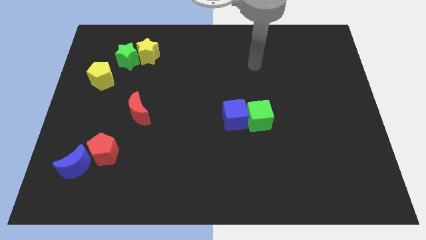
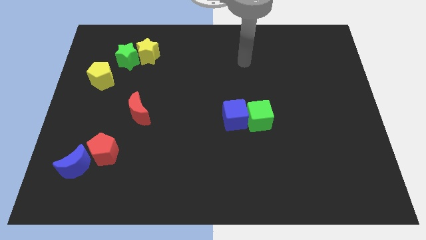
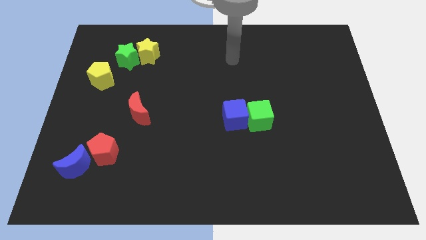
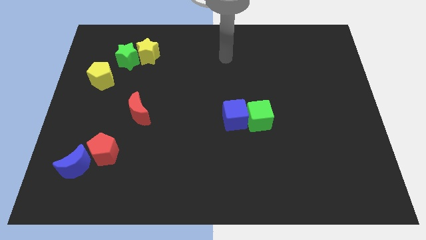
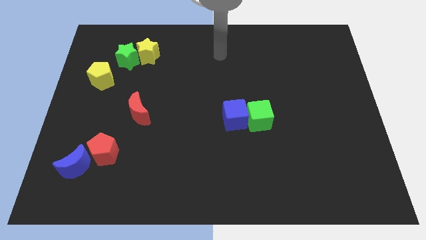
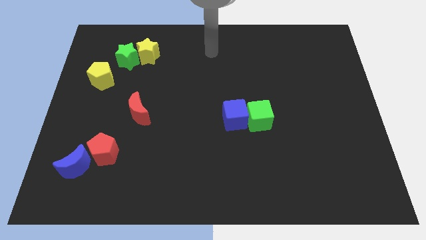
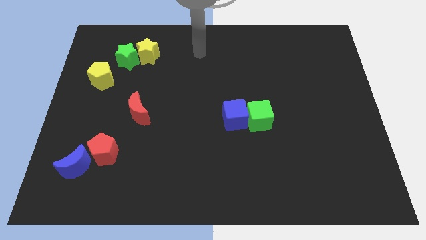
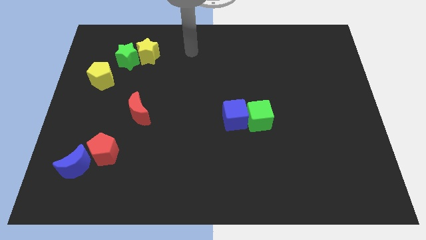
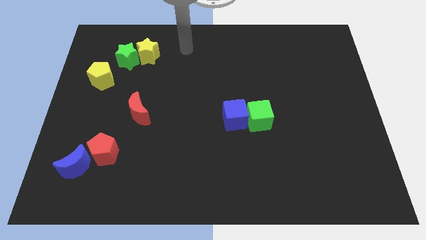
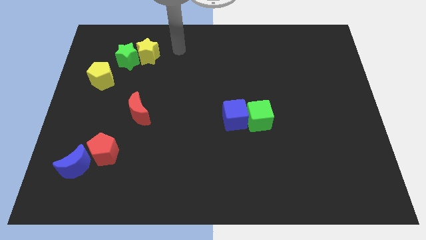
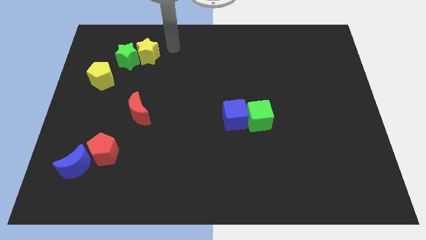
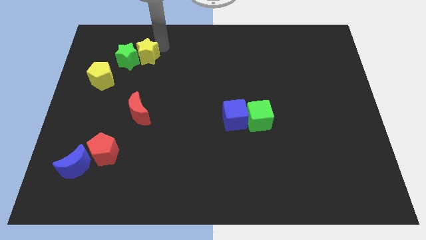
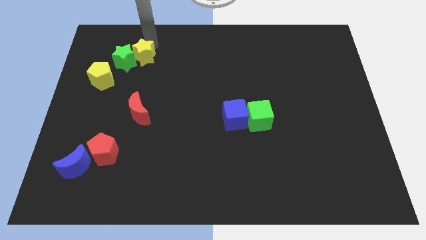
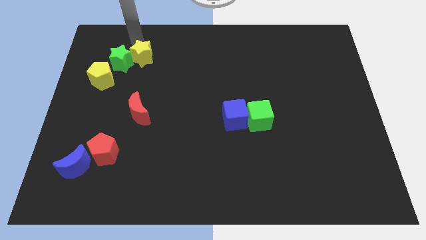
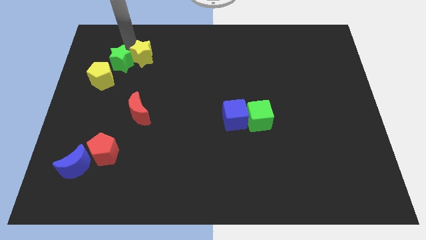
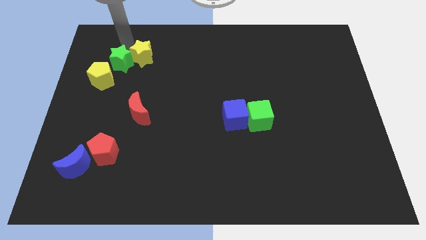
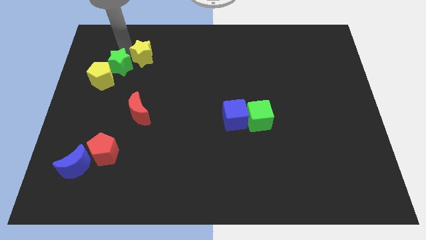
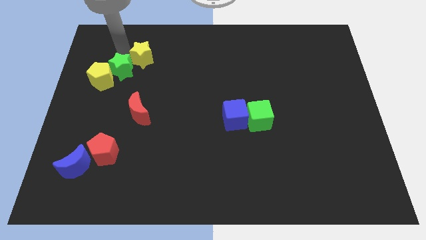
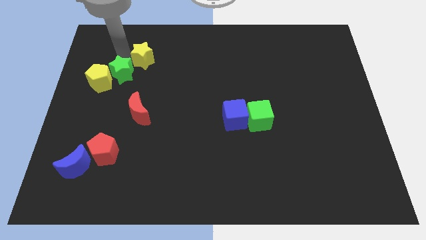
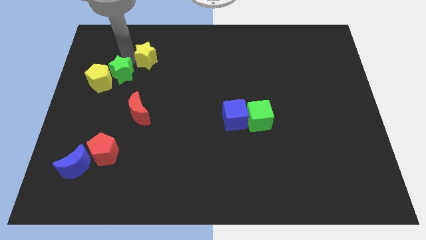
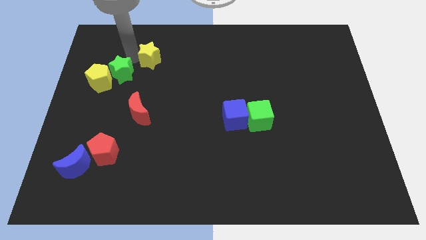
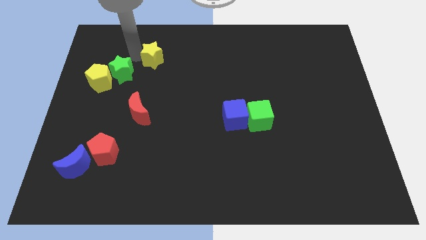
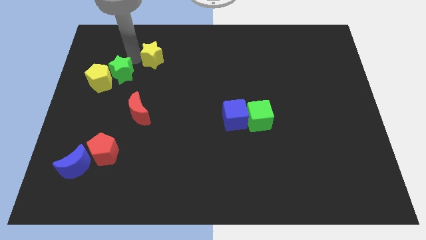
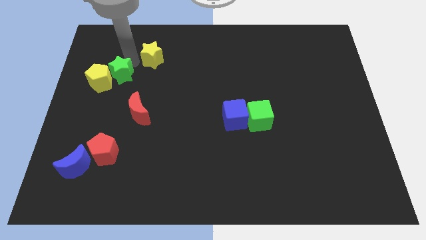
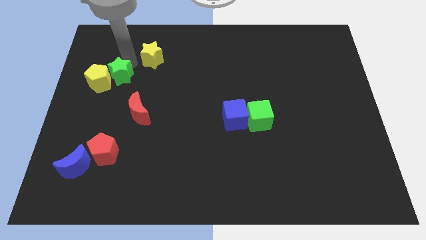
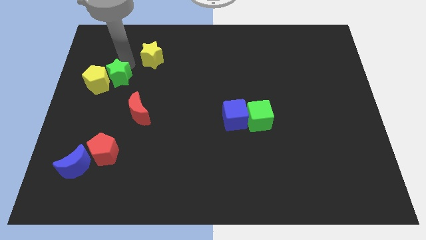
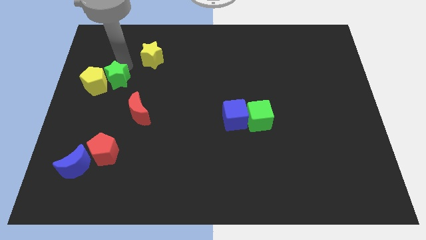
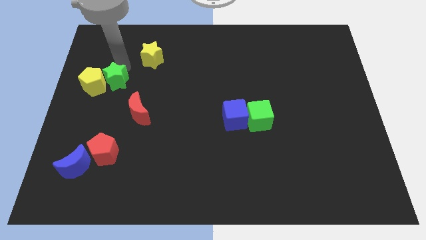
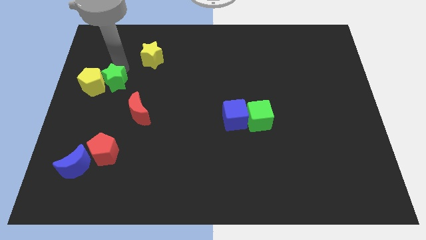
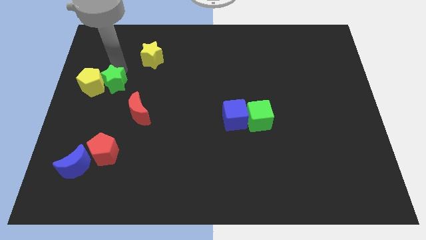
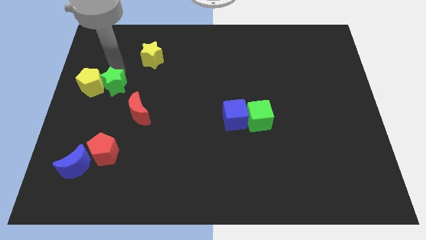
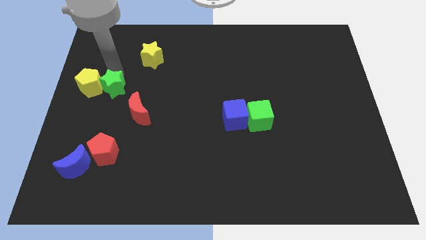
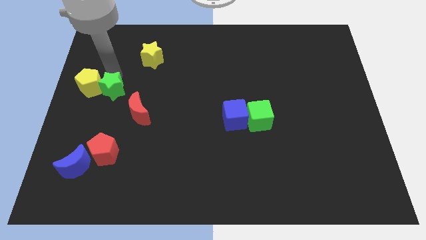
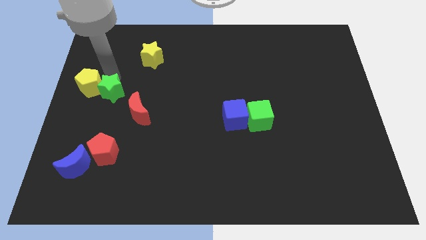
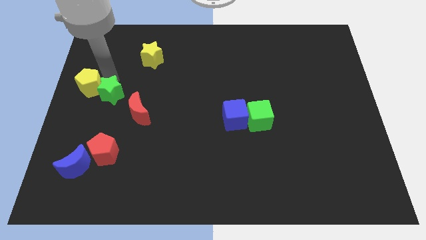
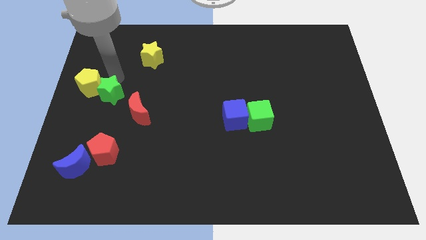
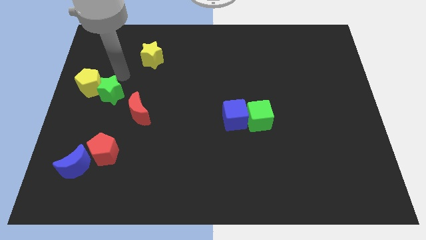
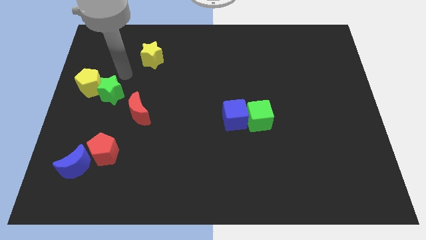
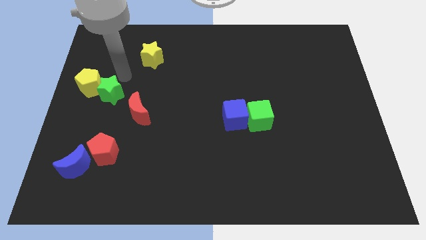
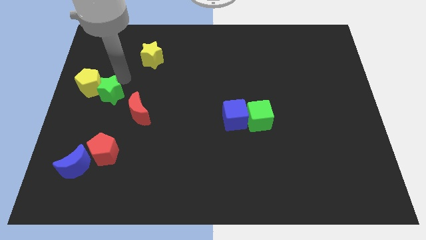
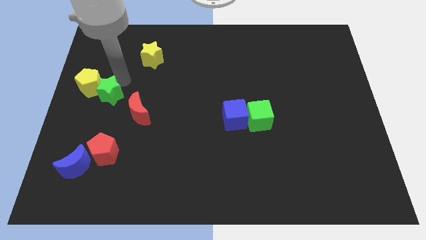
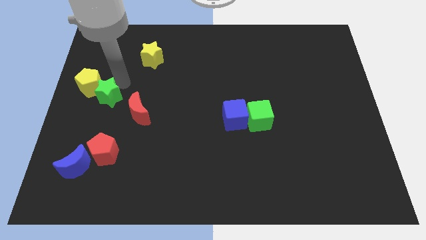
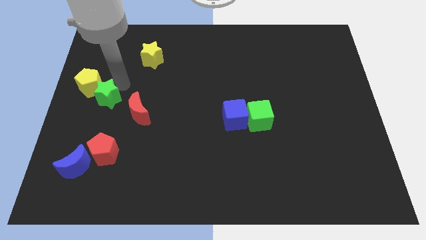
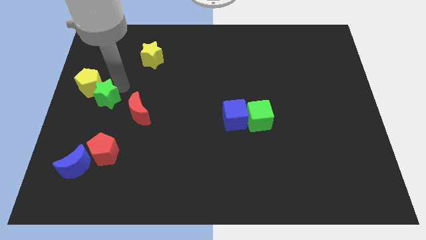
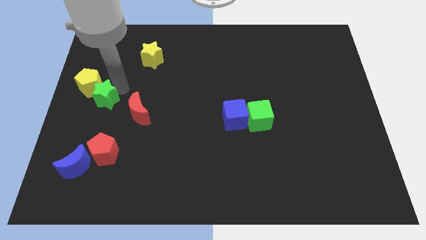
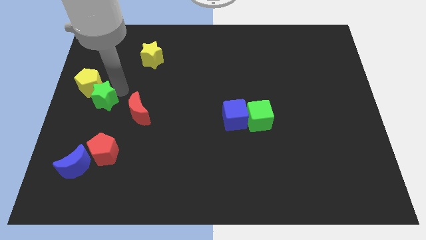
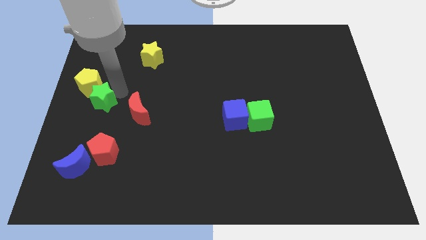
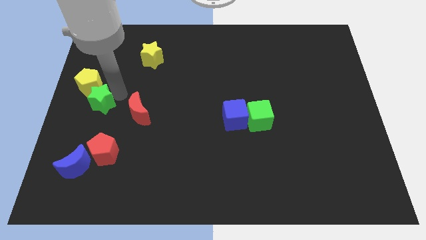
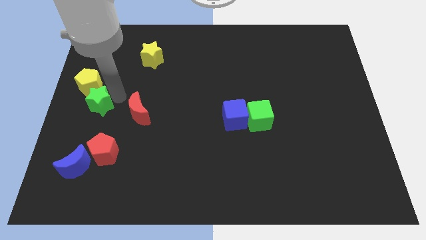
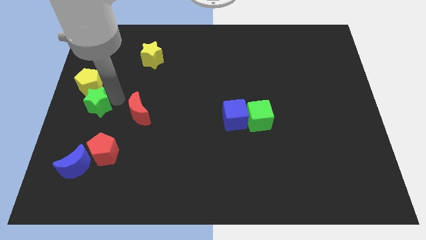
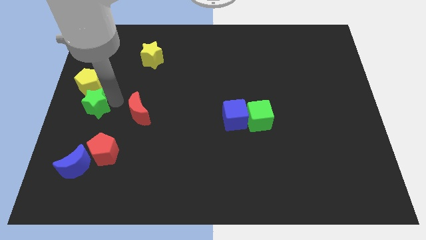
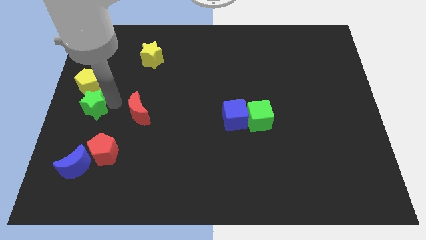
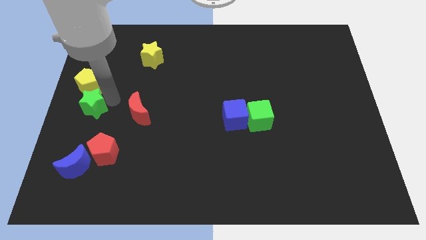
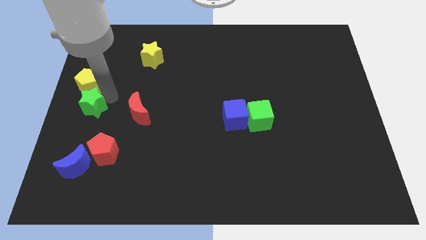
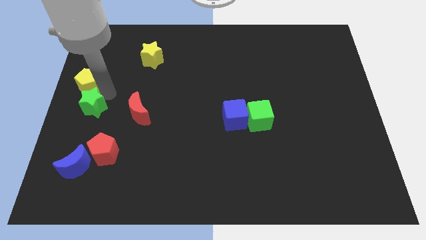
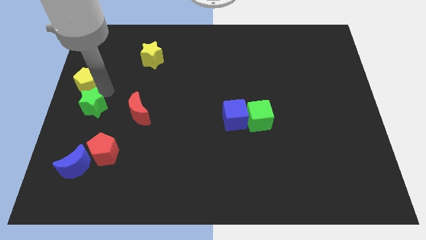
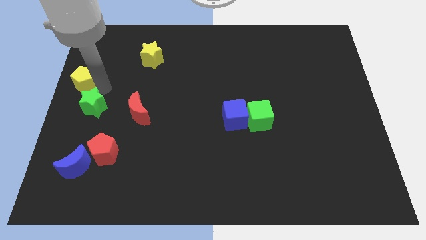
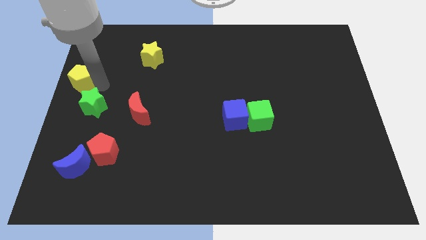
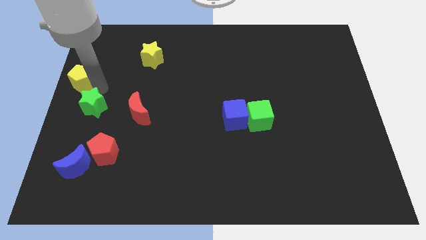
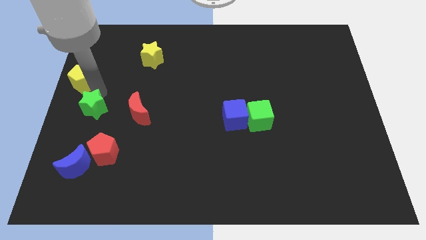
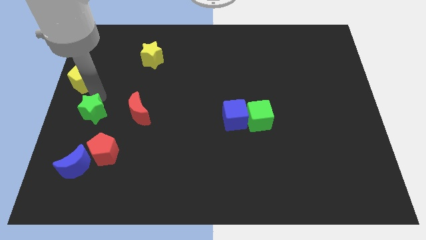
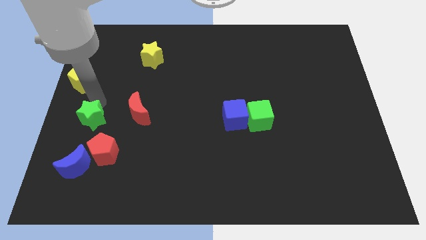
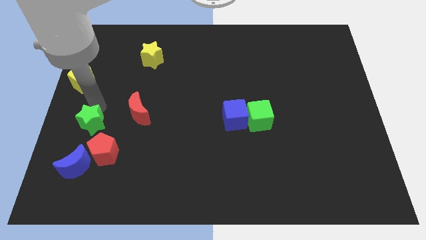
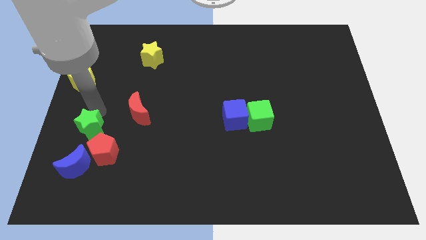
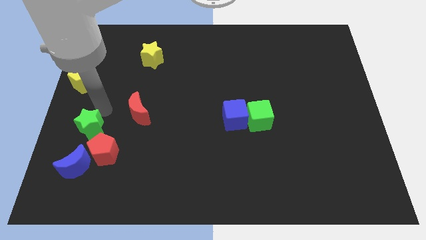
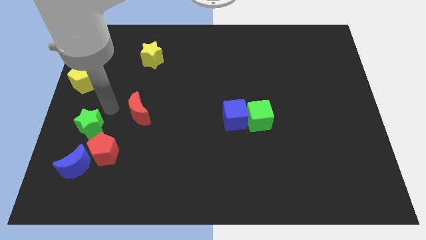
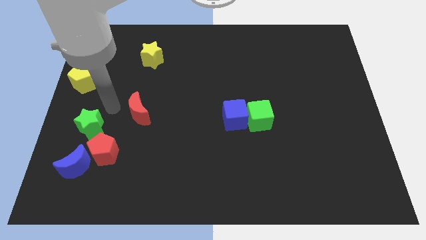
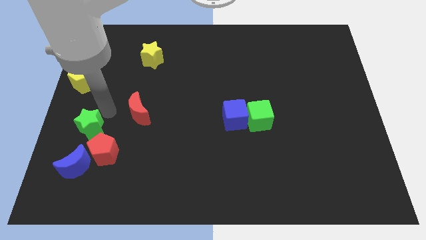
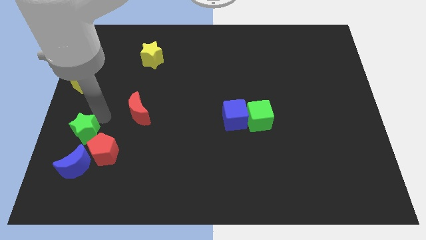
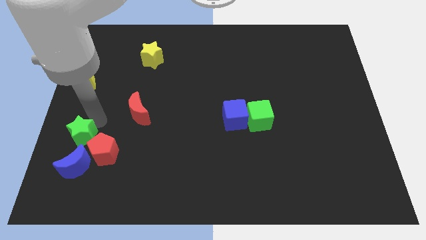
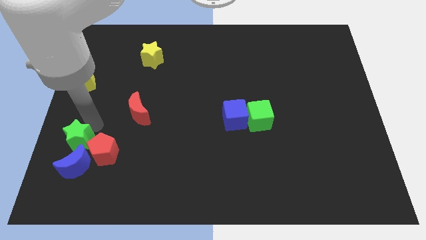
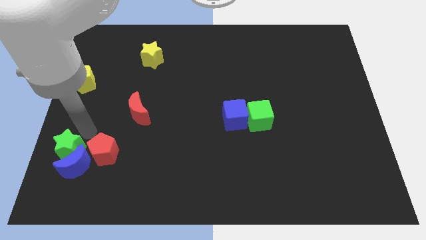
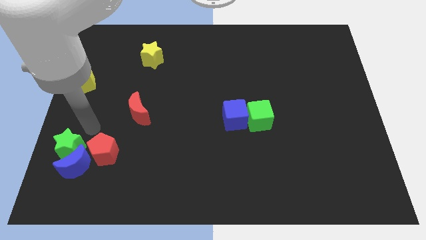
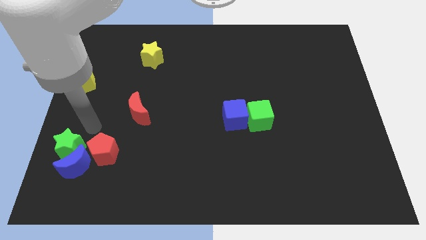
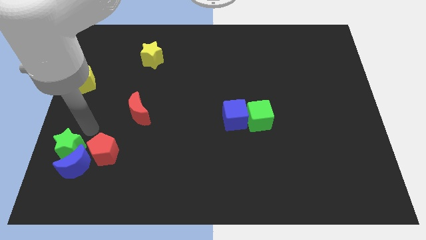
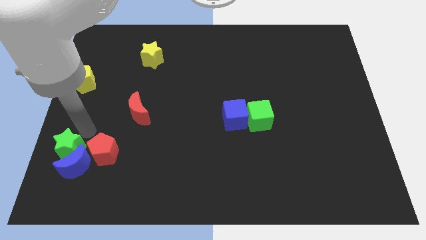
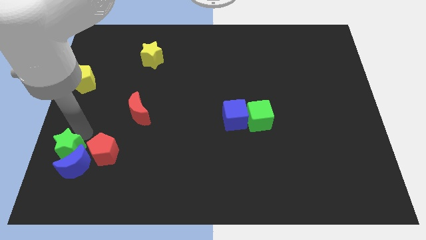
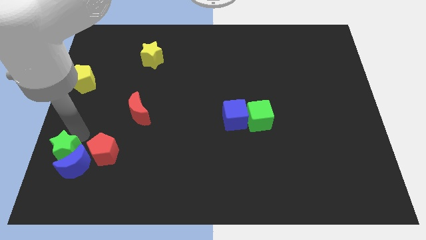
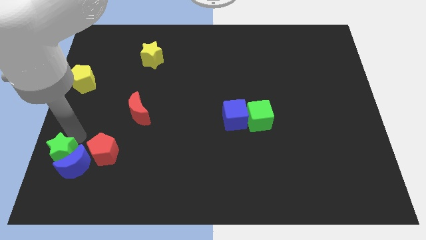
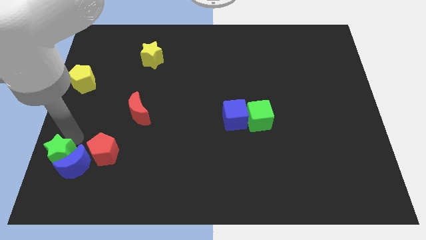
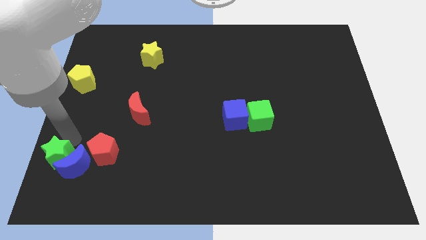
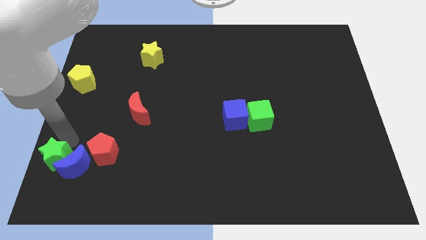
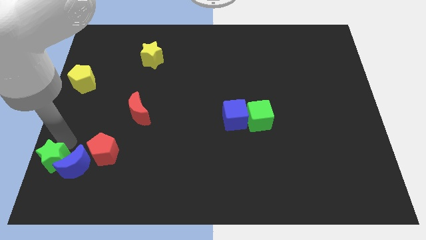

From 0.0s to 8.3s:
push the green star to the bottom left of the board
